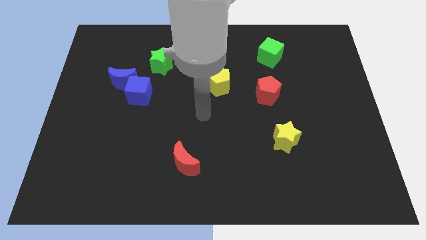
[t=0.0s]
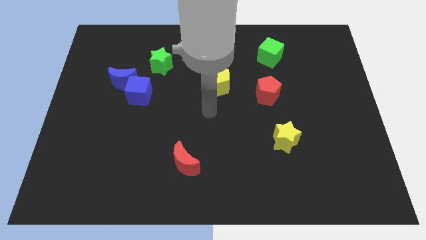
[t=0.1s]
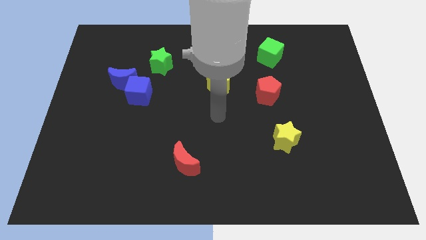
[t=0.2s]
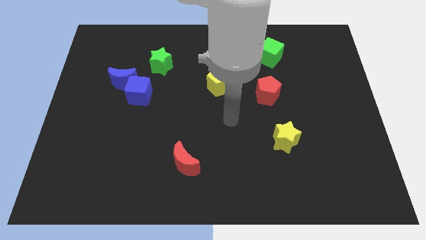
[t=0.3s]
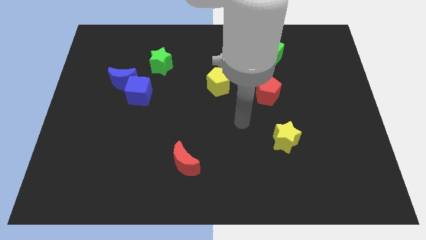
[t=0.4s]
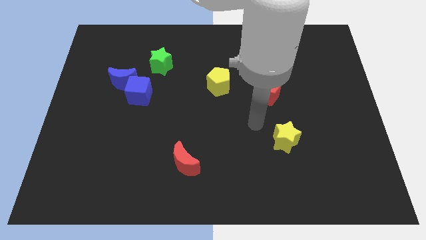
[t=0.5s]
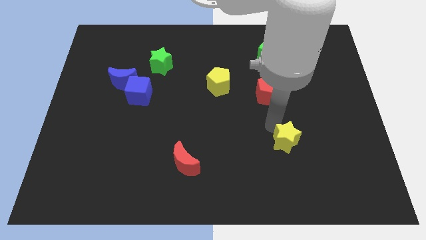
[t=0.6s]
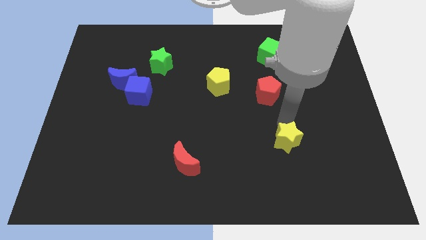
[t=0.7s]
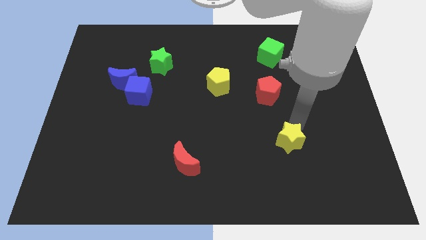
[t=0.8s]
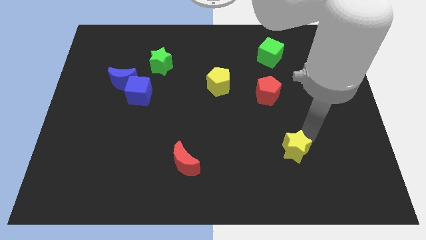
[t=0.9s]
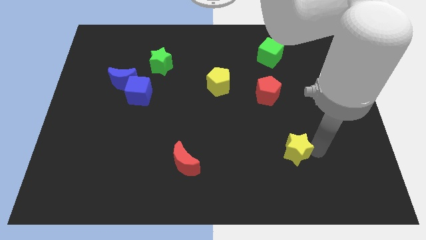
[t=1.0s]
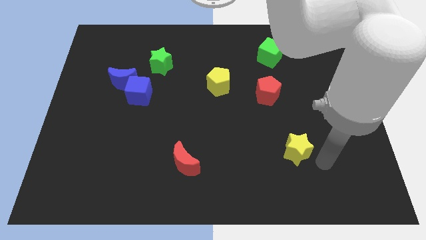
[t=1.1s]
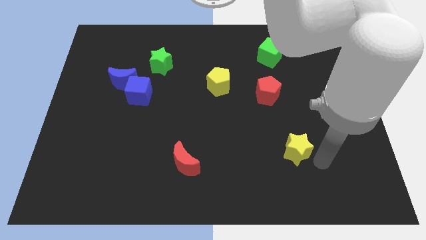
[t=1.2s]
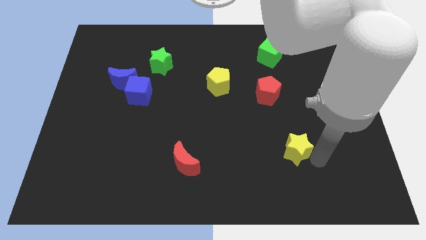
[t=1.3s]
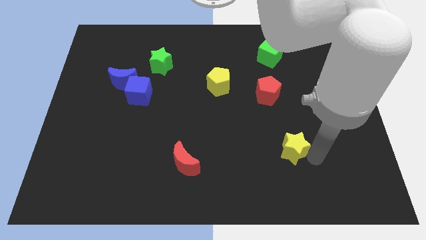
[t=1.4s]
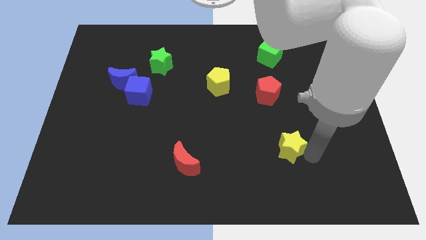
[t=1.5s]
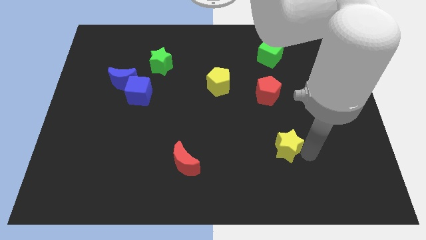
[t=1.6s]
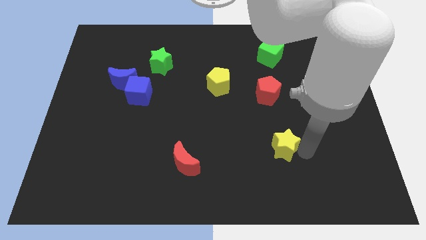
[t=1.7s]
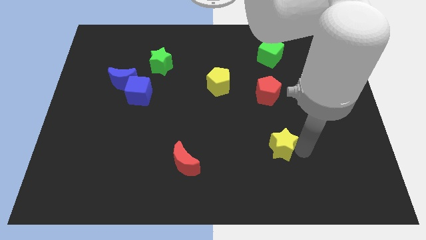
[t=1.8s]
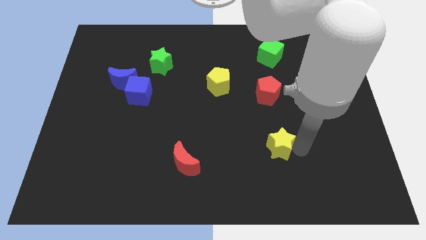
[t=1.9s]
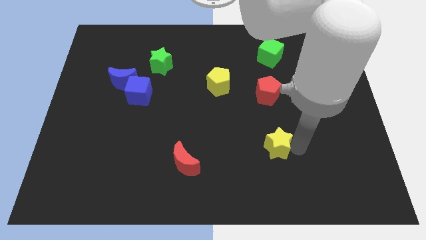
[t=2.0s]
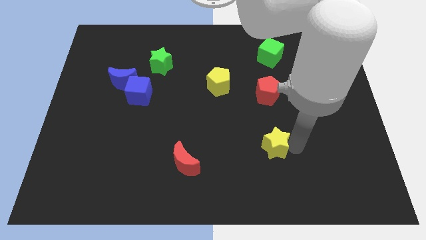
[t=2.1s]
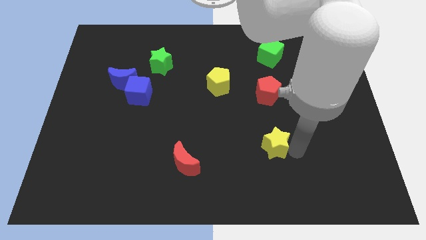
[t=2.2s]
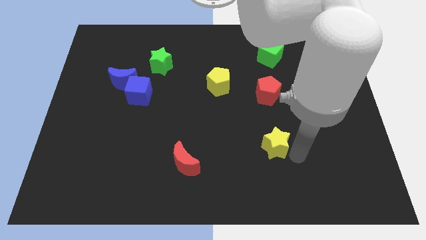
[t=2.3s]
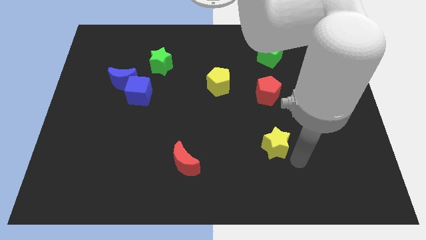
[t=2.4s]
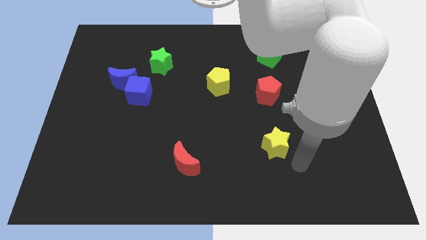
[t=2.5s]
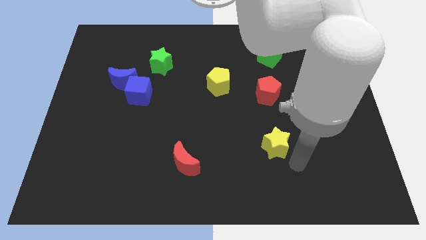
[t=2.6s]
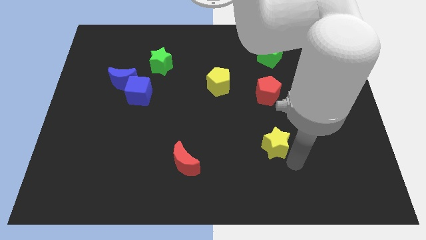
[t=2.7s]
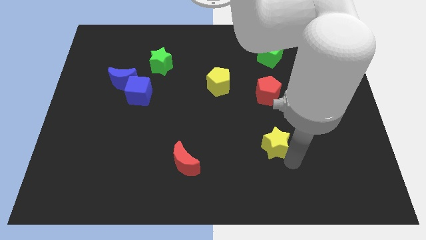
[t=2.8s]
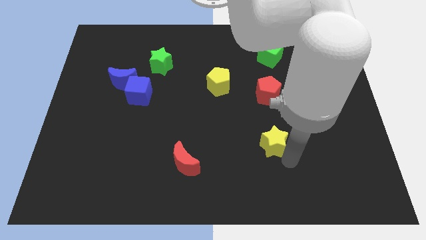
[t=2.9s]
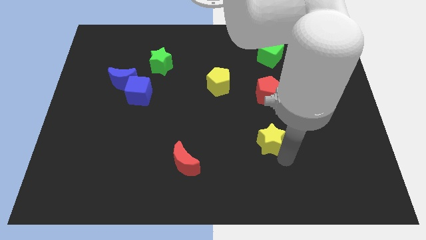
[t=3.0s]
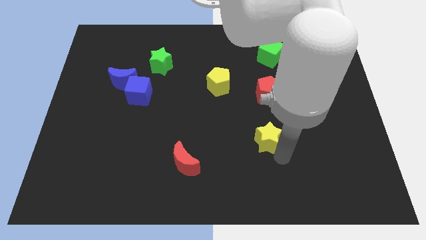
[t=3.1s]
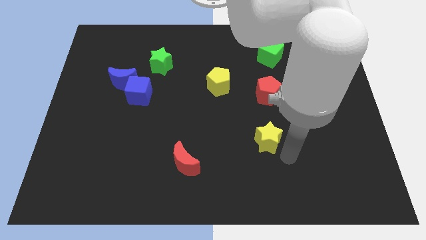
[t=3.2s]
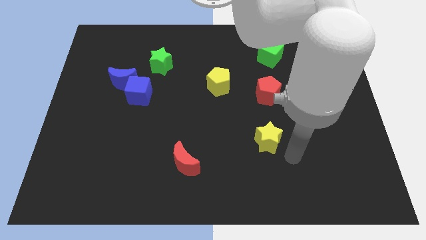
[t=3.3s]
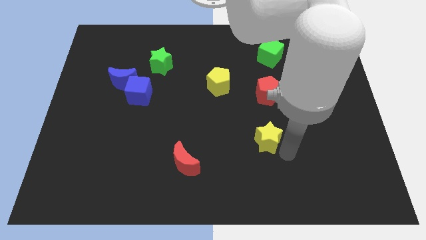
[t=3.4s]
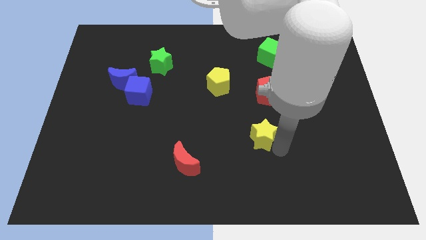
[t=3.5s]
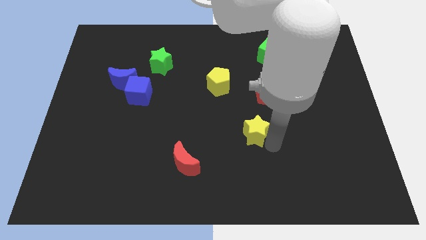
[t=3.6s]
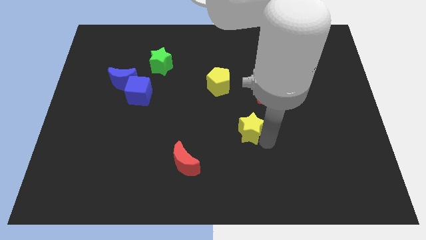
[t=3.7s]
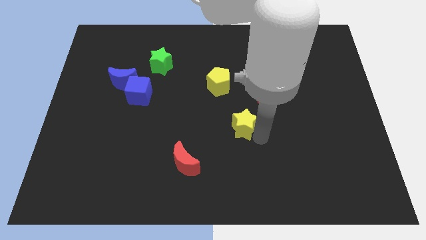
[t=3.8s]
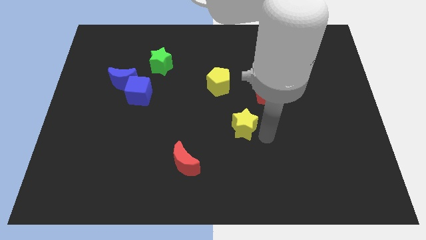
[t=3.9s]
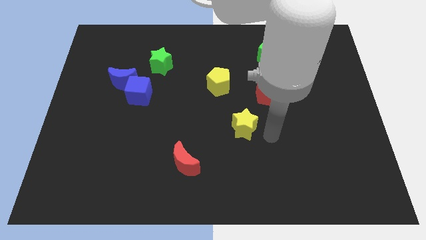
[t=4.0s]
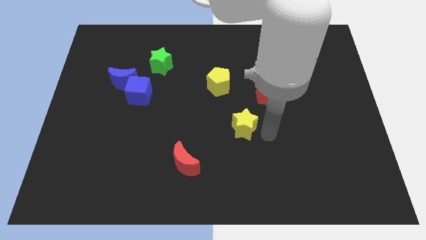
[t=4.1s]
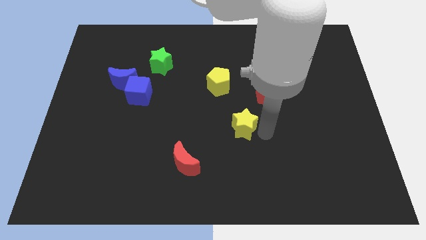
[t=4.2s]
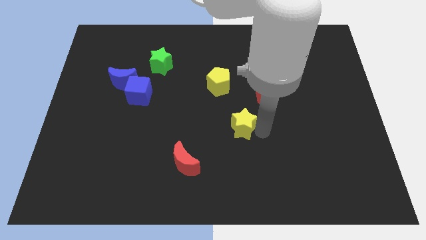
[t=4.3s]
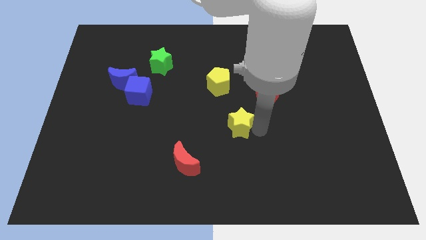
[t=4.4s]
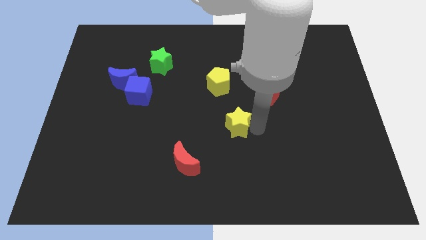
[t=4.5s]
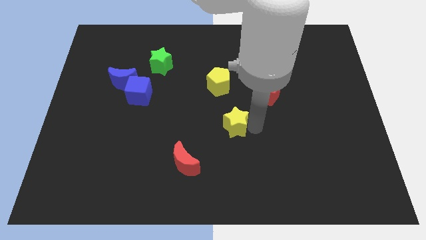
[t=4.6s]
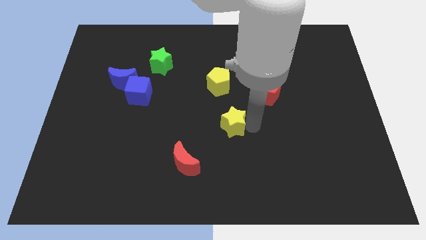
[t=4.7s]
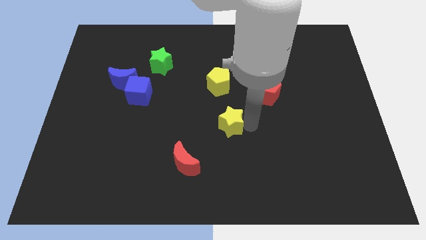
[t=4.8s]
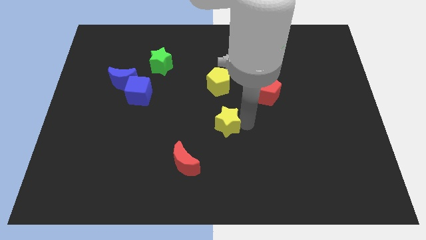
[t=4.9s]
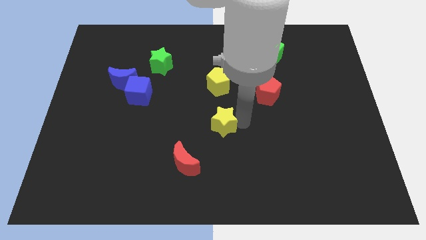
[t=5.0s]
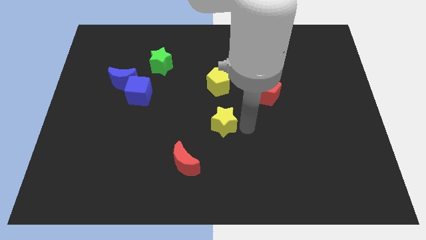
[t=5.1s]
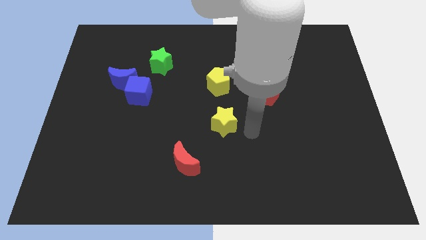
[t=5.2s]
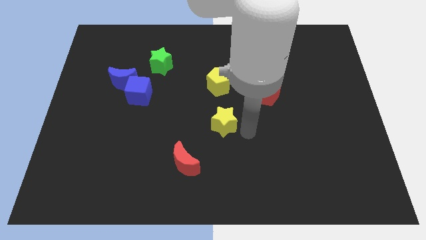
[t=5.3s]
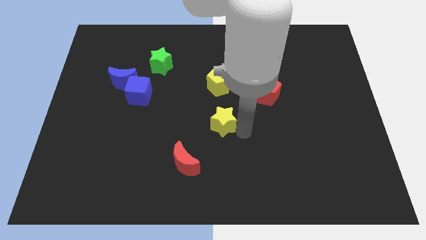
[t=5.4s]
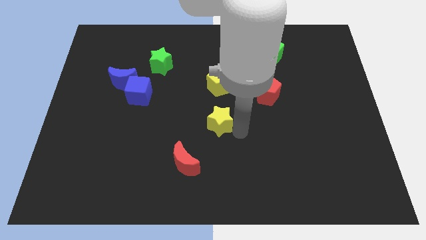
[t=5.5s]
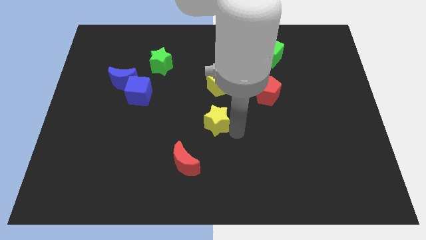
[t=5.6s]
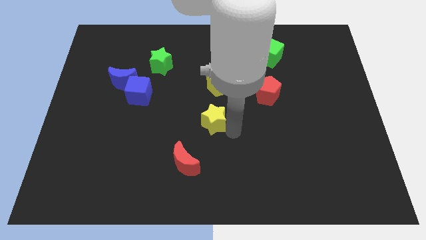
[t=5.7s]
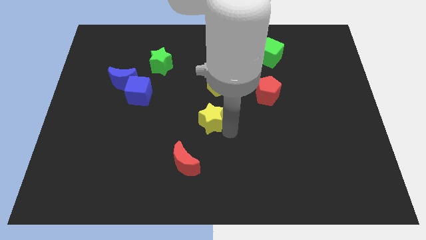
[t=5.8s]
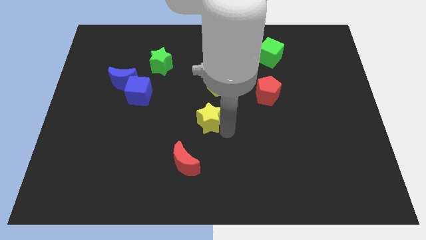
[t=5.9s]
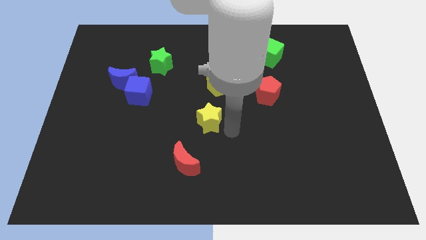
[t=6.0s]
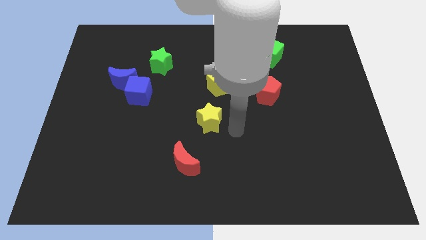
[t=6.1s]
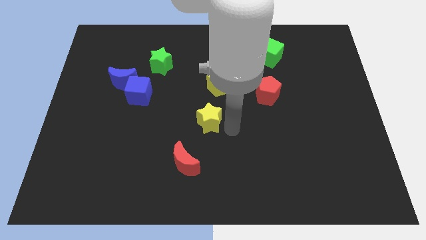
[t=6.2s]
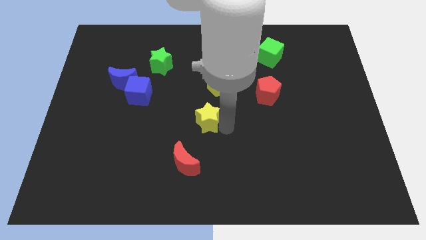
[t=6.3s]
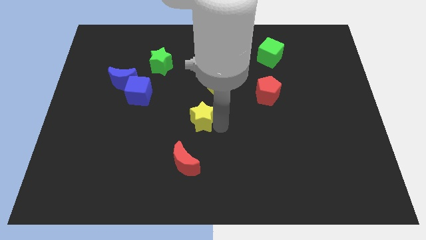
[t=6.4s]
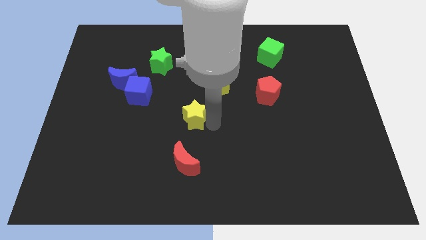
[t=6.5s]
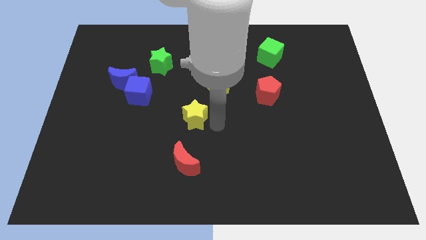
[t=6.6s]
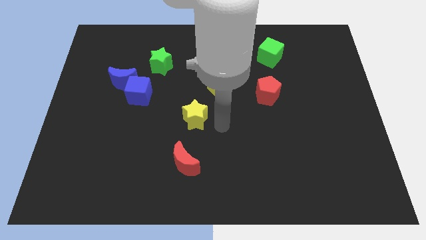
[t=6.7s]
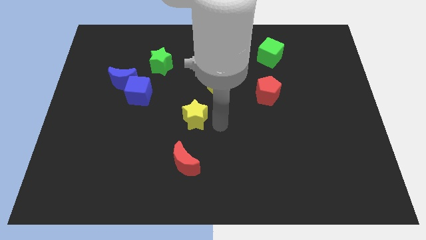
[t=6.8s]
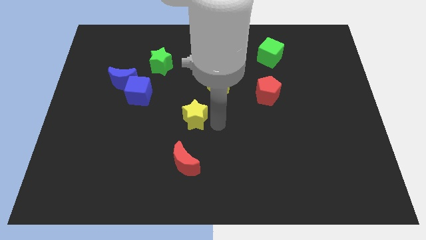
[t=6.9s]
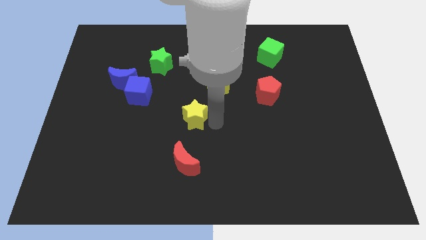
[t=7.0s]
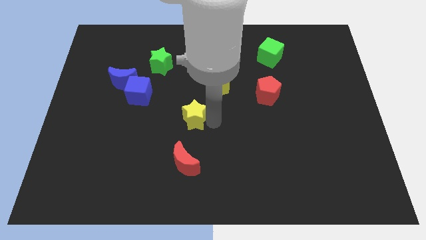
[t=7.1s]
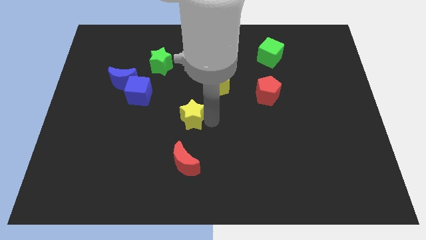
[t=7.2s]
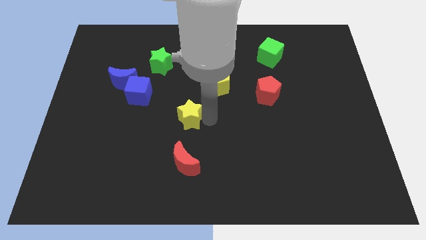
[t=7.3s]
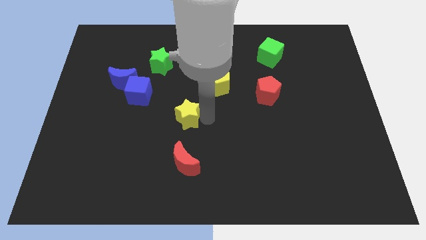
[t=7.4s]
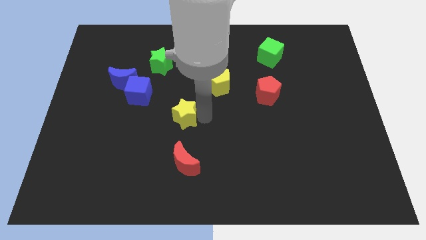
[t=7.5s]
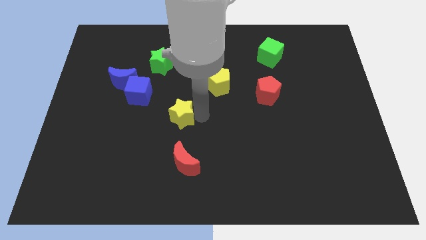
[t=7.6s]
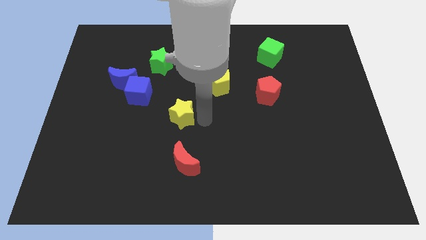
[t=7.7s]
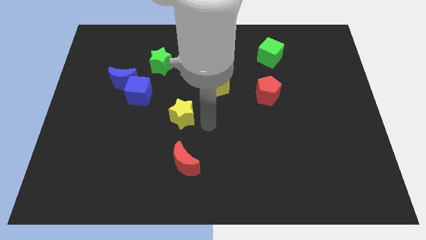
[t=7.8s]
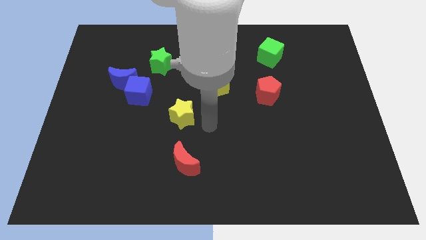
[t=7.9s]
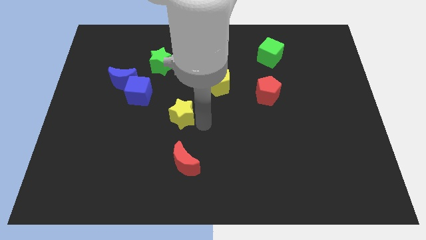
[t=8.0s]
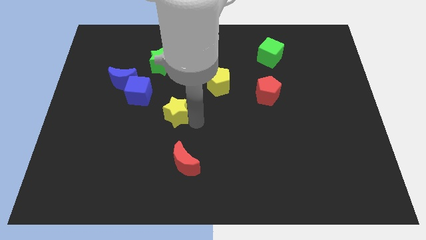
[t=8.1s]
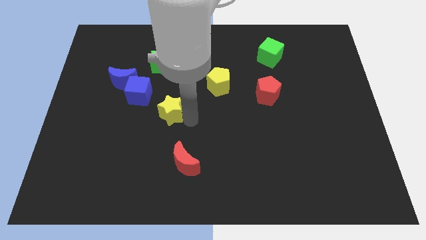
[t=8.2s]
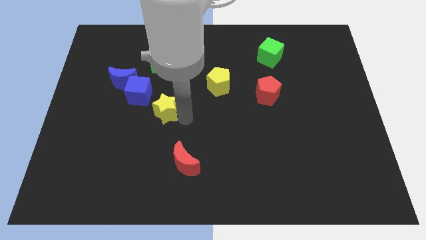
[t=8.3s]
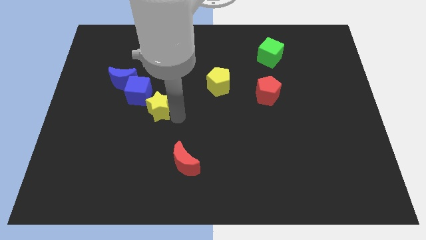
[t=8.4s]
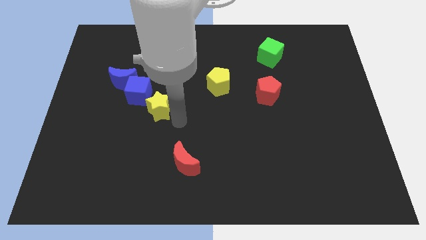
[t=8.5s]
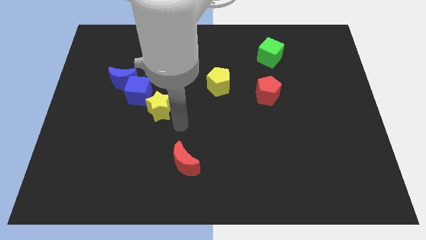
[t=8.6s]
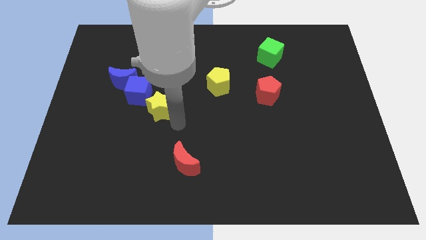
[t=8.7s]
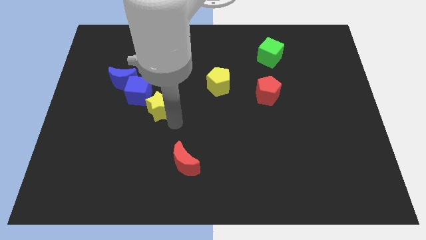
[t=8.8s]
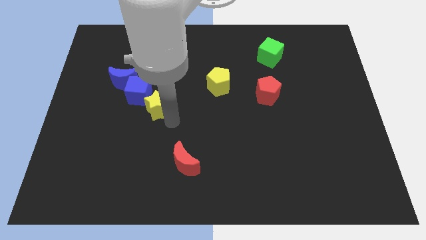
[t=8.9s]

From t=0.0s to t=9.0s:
put the yellow star to the bottom right side of the blue moon
